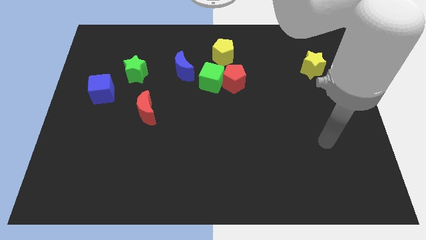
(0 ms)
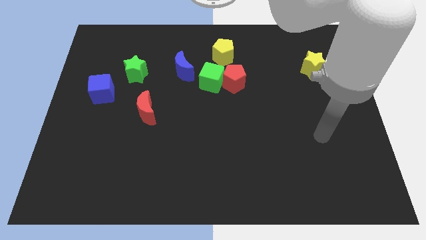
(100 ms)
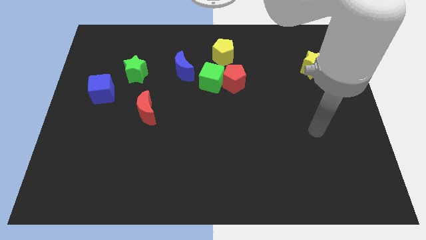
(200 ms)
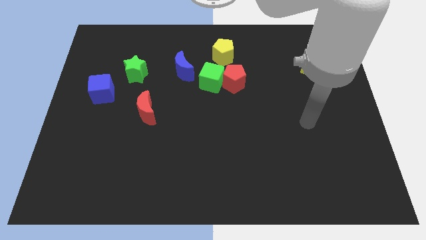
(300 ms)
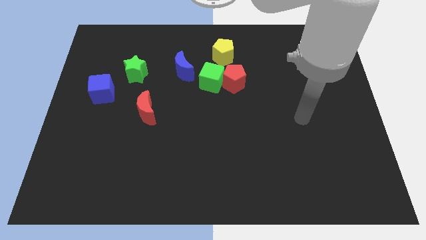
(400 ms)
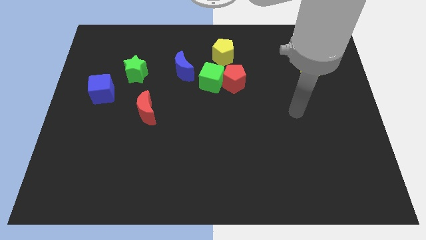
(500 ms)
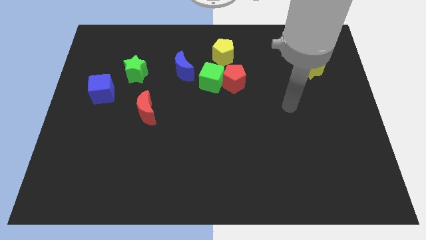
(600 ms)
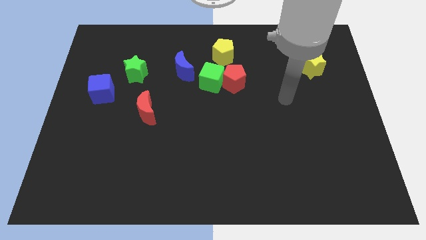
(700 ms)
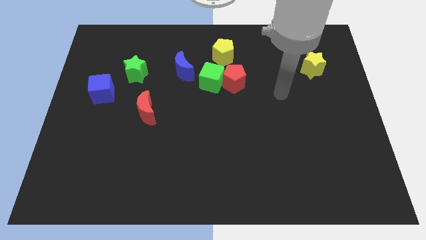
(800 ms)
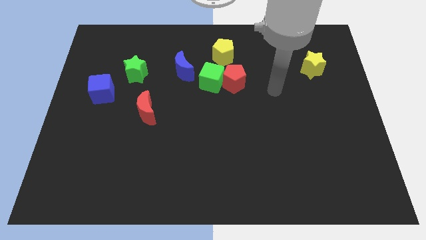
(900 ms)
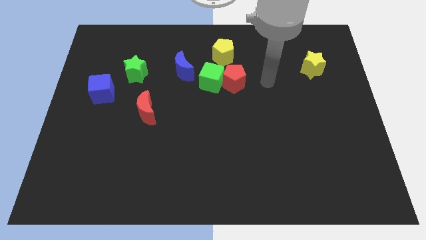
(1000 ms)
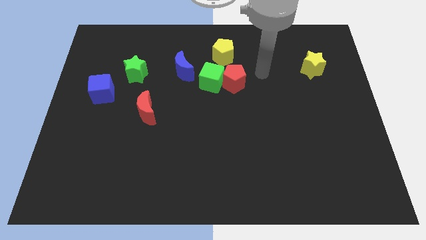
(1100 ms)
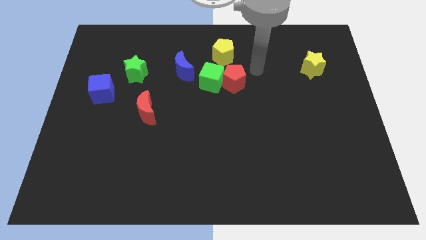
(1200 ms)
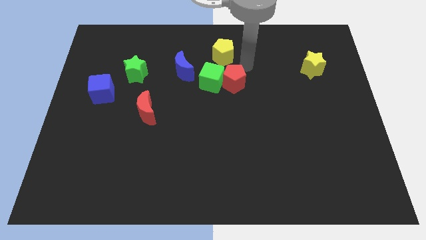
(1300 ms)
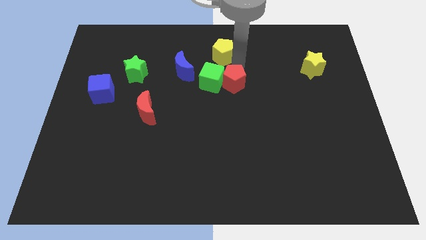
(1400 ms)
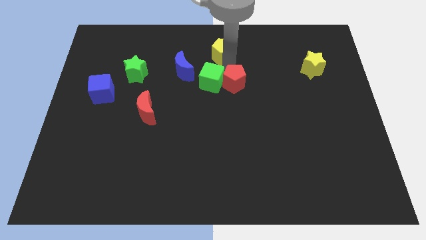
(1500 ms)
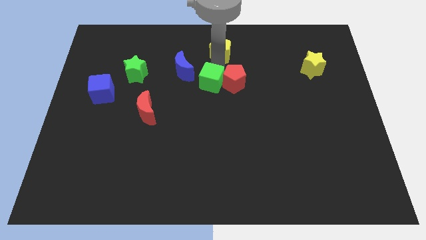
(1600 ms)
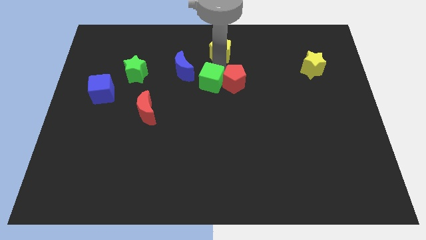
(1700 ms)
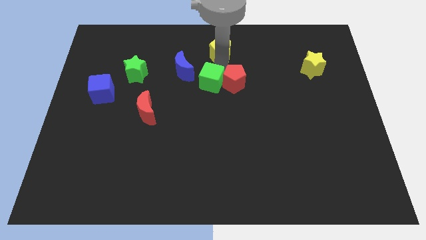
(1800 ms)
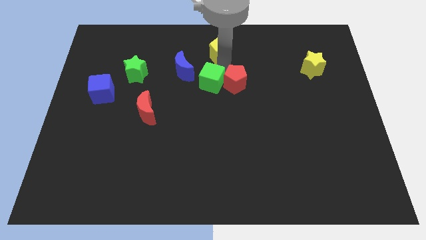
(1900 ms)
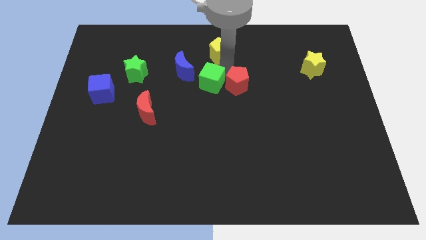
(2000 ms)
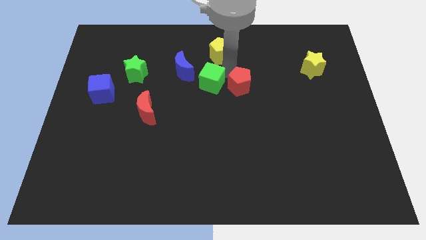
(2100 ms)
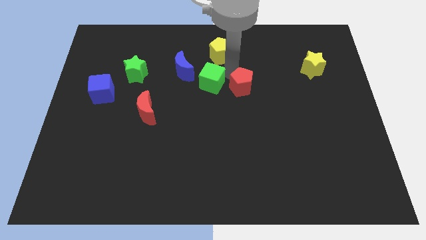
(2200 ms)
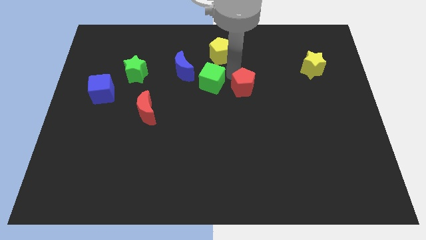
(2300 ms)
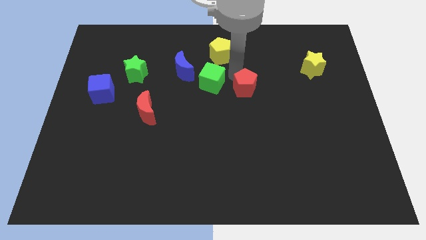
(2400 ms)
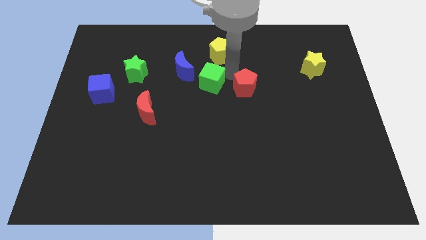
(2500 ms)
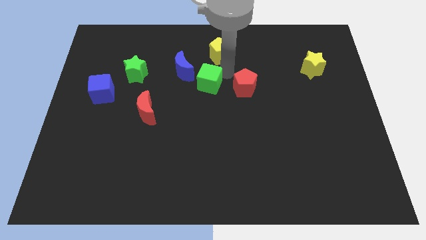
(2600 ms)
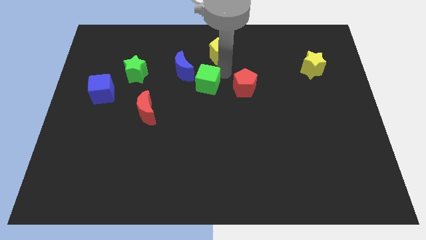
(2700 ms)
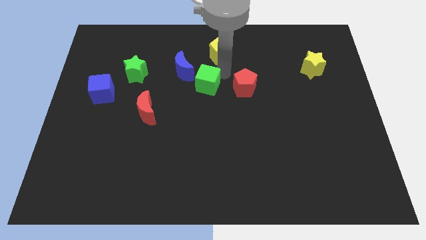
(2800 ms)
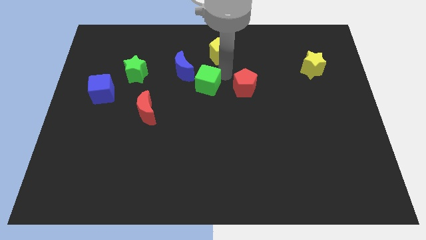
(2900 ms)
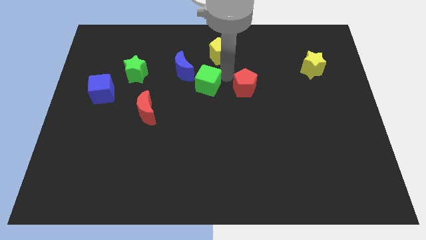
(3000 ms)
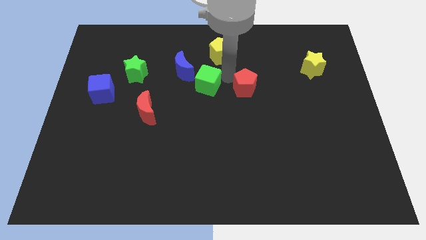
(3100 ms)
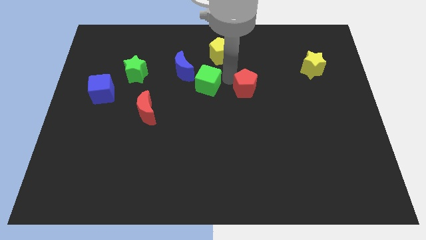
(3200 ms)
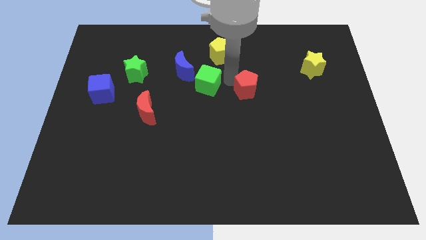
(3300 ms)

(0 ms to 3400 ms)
pull the red pentagon apart from the green cube and yellow pentagon

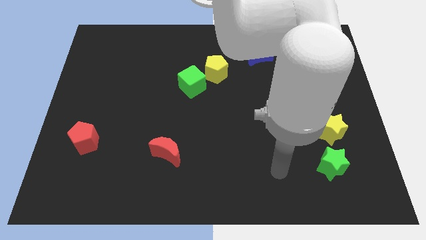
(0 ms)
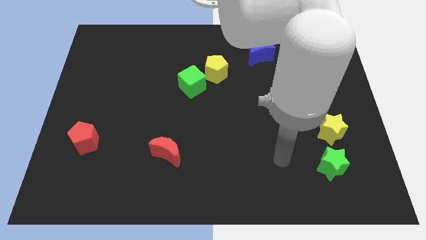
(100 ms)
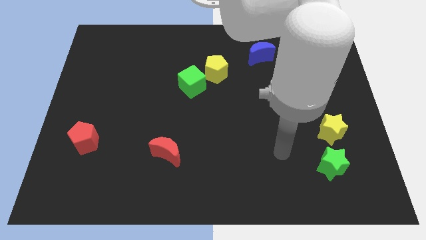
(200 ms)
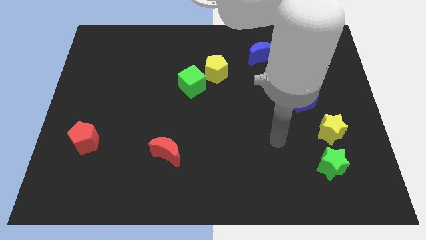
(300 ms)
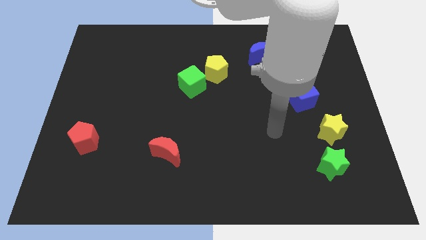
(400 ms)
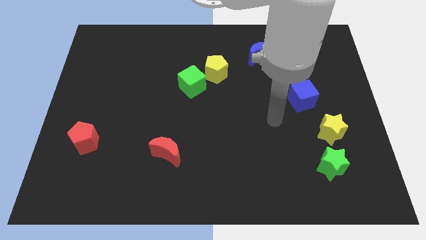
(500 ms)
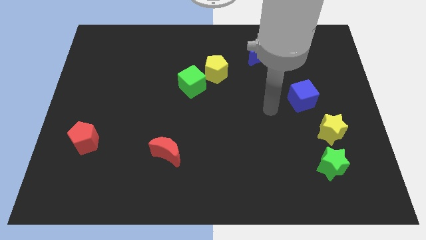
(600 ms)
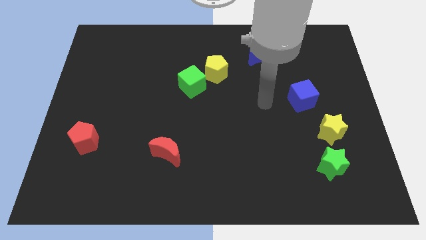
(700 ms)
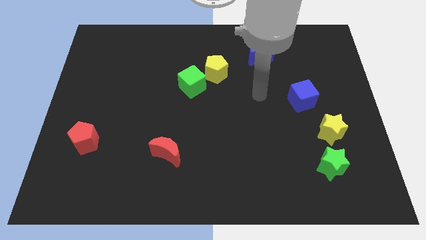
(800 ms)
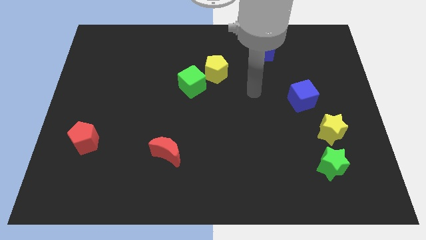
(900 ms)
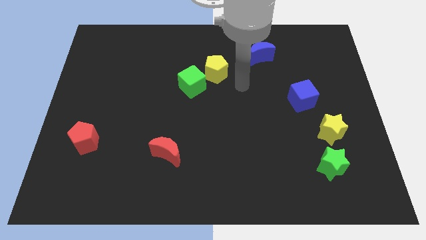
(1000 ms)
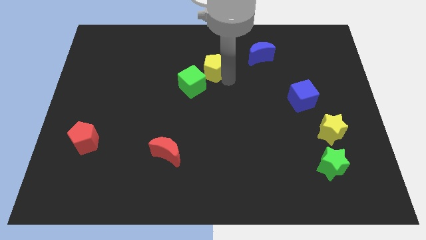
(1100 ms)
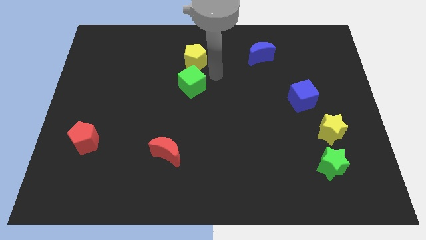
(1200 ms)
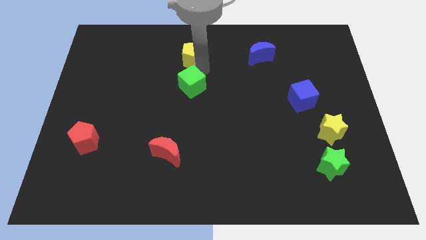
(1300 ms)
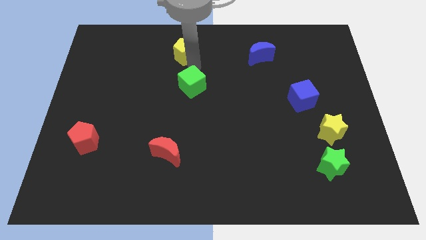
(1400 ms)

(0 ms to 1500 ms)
separate the green cube from the yellow pentagon

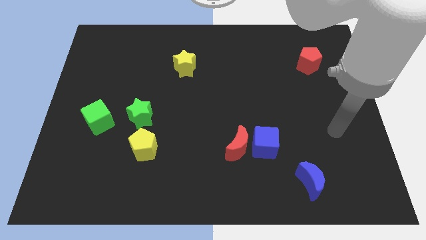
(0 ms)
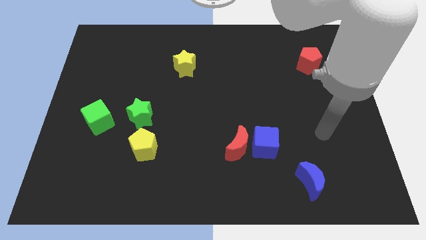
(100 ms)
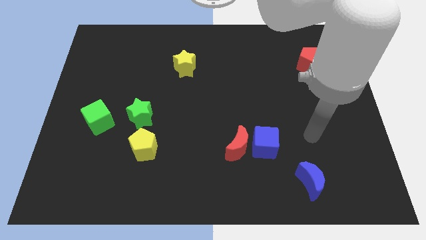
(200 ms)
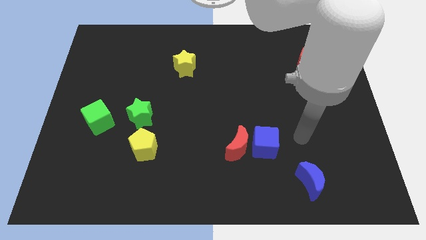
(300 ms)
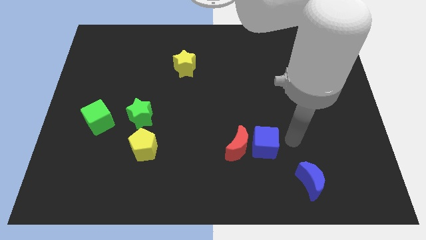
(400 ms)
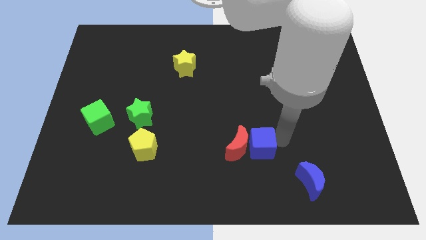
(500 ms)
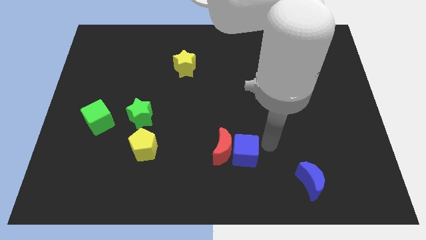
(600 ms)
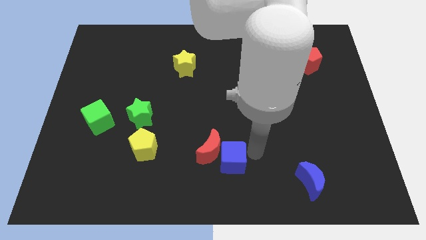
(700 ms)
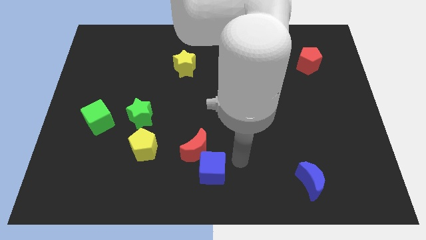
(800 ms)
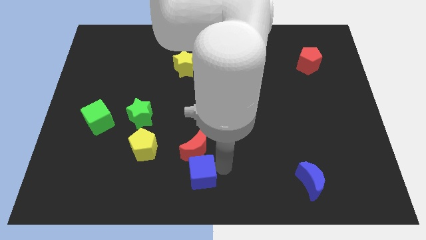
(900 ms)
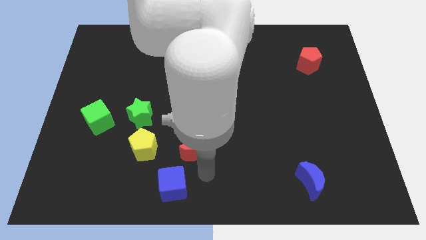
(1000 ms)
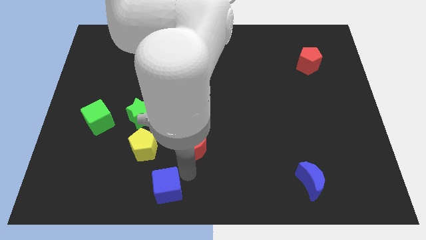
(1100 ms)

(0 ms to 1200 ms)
move the red moon away from the blue cube

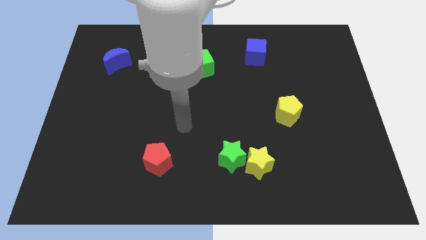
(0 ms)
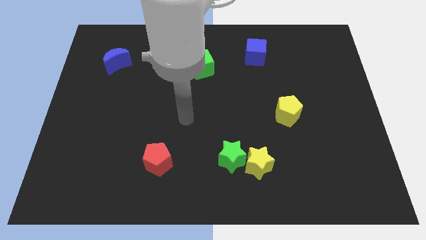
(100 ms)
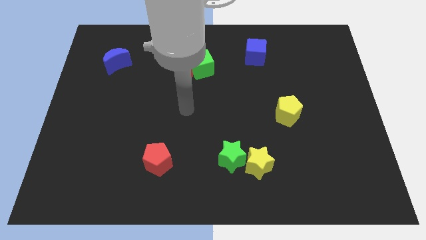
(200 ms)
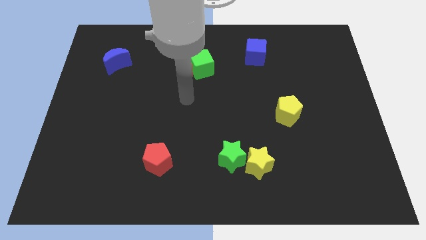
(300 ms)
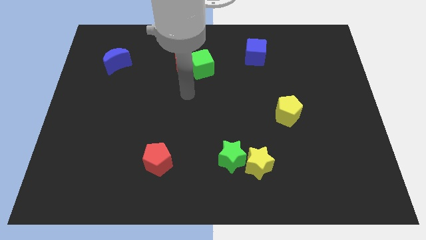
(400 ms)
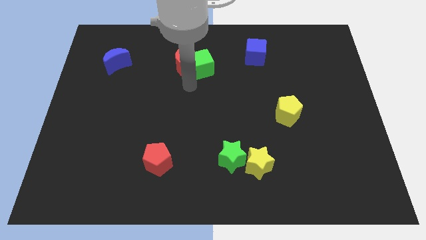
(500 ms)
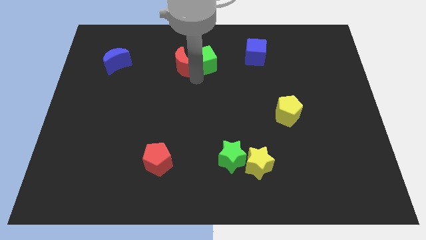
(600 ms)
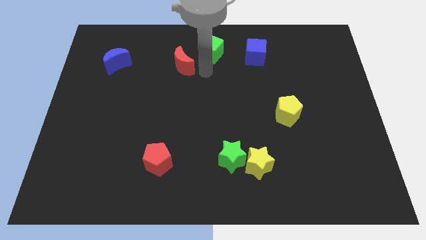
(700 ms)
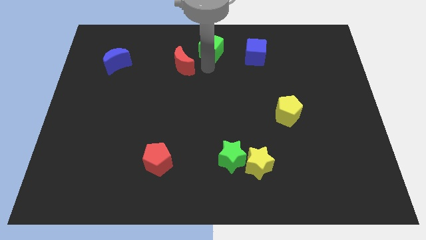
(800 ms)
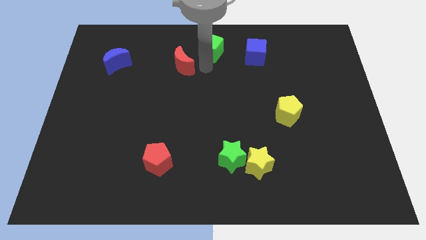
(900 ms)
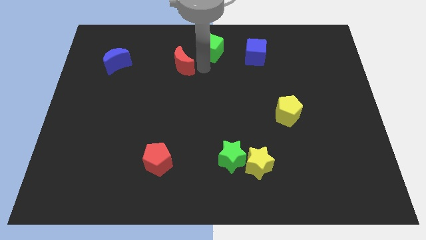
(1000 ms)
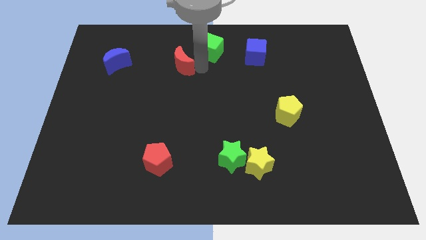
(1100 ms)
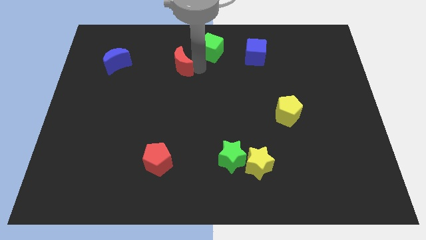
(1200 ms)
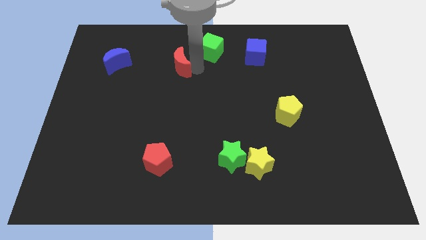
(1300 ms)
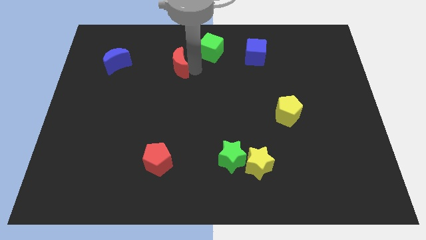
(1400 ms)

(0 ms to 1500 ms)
separate the red moon from the green cube

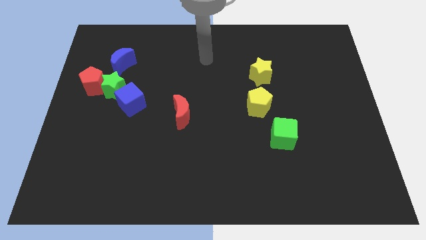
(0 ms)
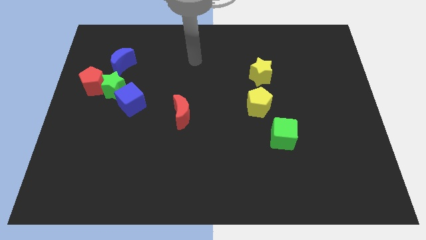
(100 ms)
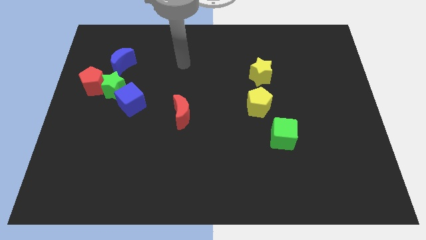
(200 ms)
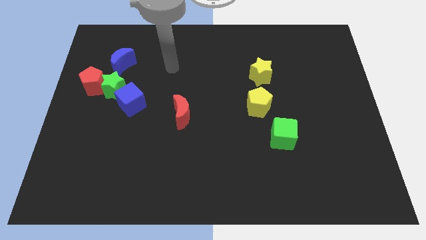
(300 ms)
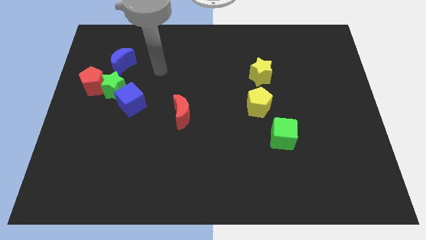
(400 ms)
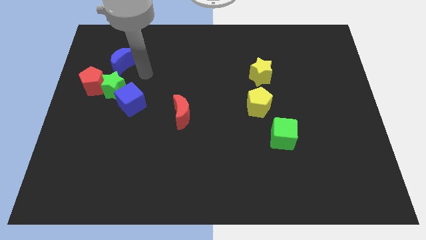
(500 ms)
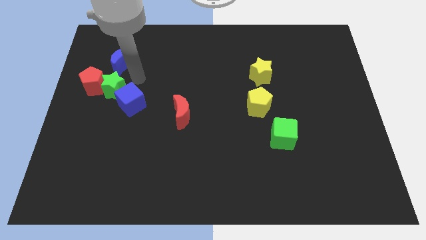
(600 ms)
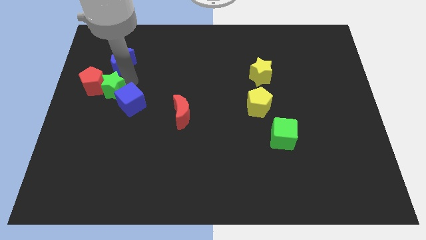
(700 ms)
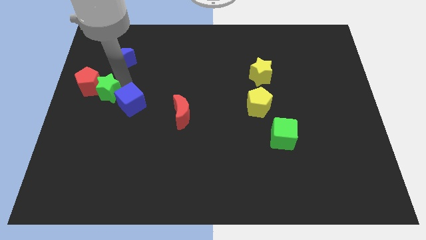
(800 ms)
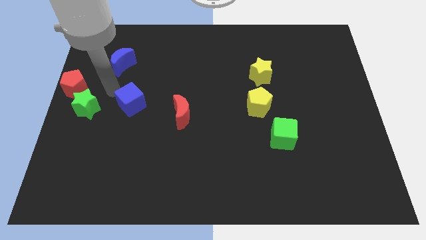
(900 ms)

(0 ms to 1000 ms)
separate the blue cube from the green star

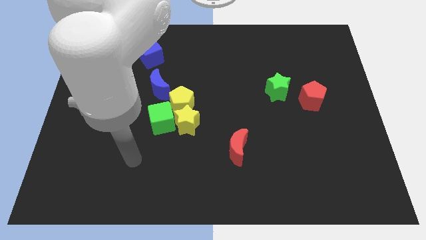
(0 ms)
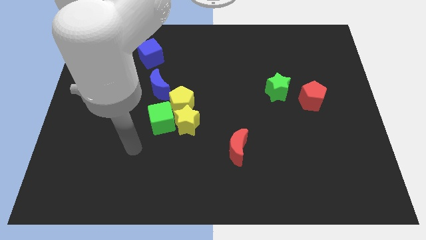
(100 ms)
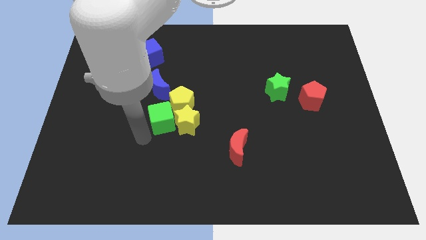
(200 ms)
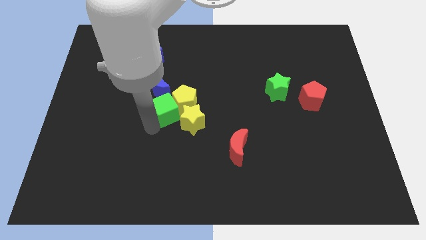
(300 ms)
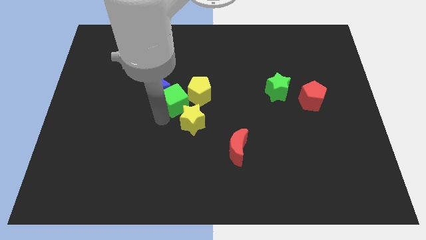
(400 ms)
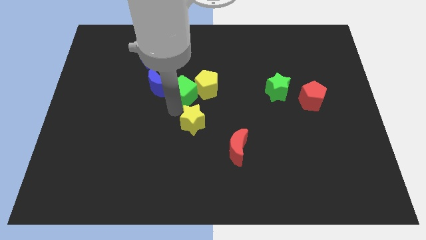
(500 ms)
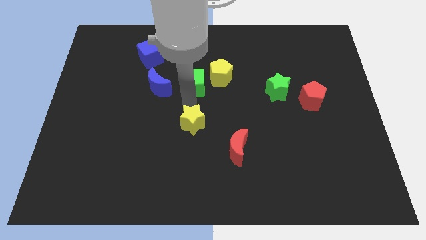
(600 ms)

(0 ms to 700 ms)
move the yellow star away from the green cube and yellow pentagon
